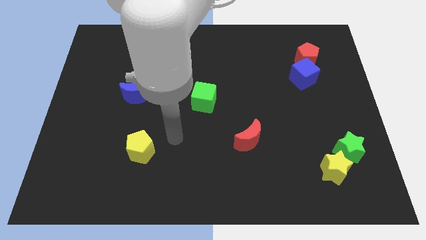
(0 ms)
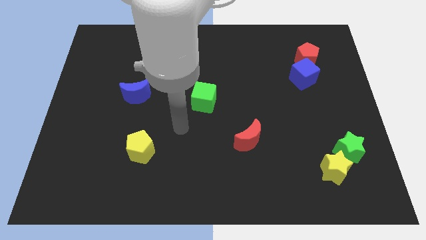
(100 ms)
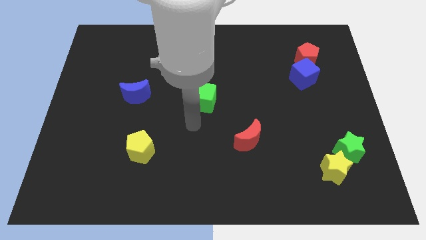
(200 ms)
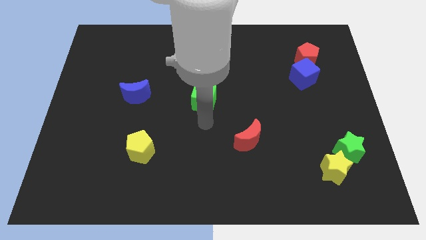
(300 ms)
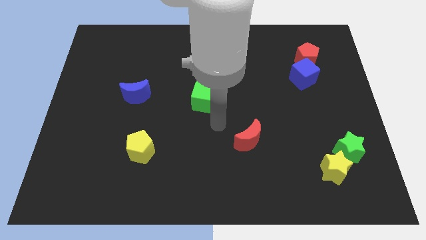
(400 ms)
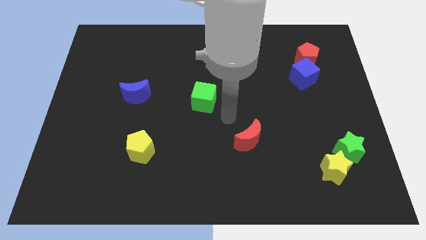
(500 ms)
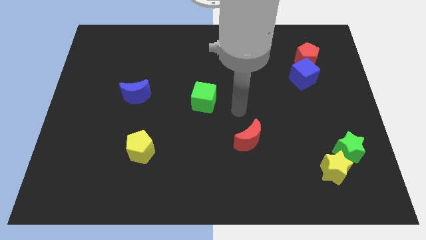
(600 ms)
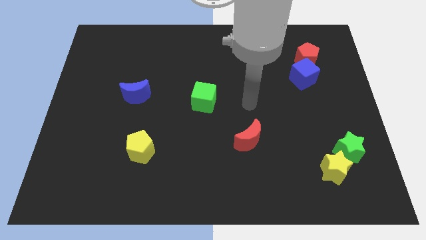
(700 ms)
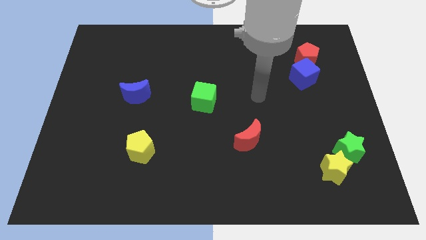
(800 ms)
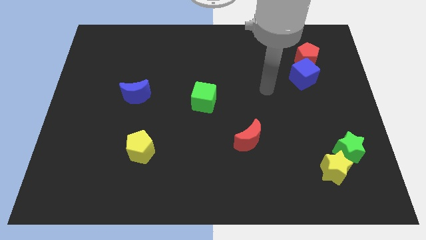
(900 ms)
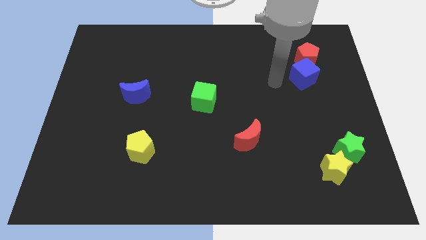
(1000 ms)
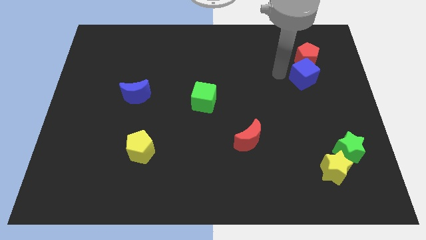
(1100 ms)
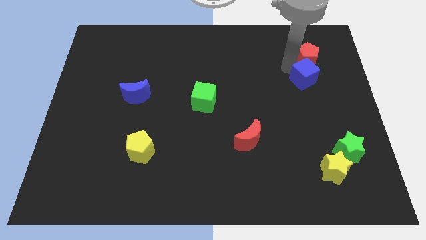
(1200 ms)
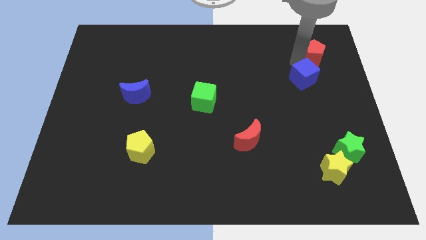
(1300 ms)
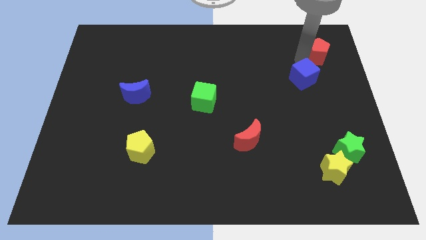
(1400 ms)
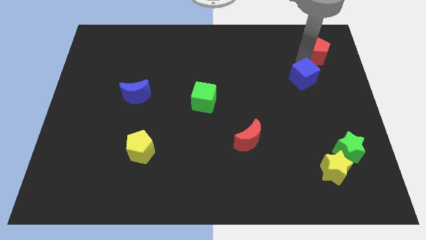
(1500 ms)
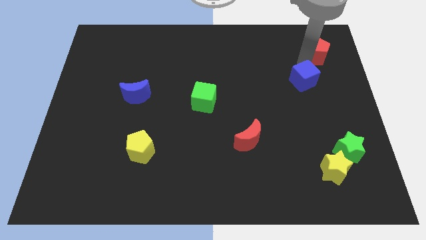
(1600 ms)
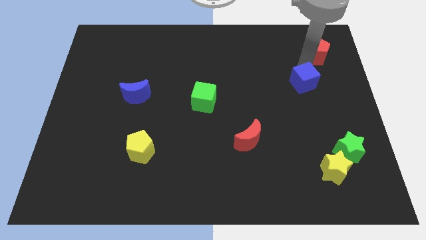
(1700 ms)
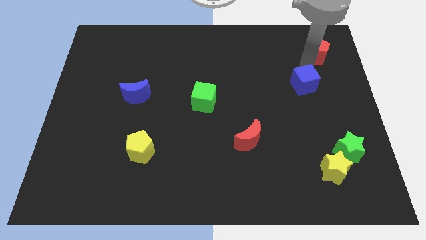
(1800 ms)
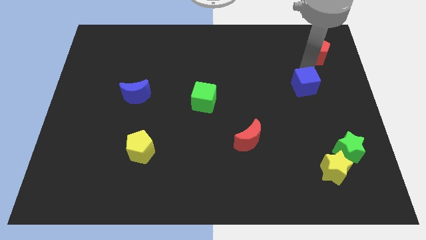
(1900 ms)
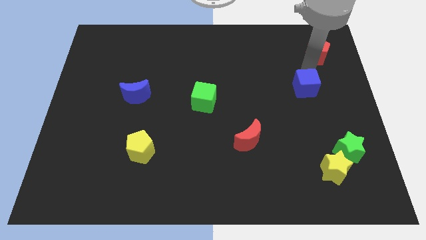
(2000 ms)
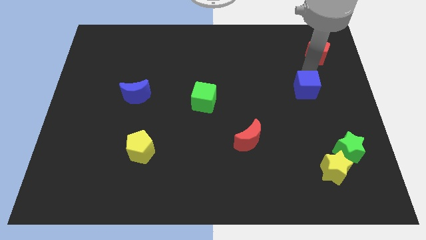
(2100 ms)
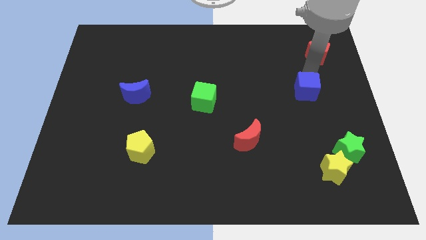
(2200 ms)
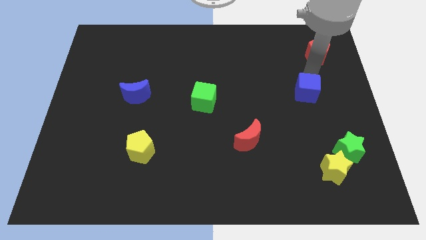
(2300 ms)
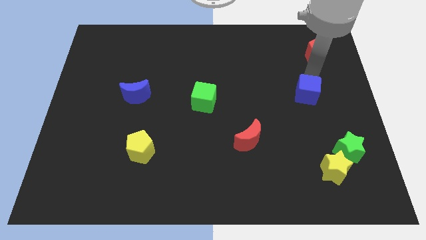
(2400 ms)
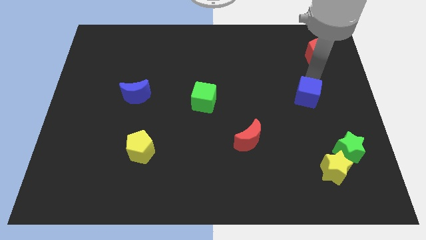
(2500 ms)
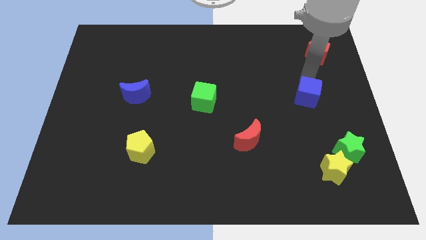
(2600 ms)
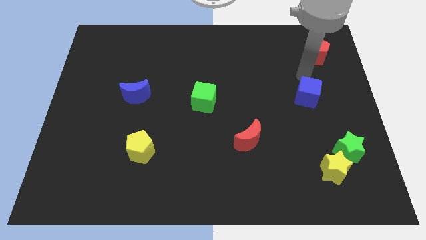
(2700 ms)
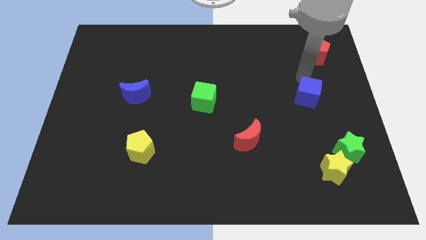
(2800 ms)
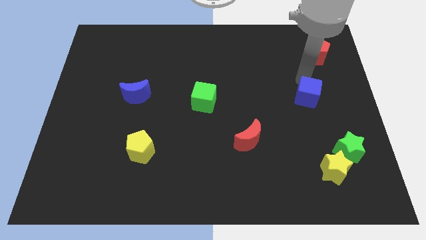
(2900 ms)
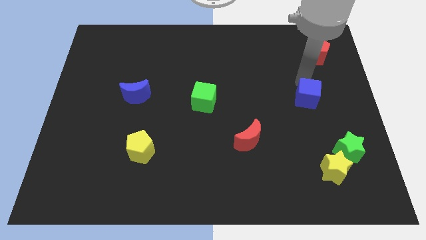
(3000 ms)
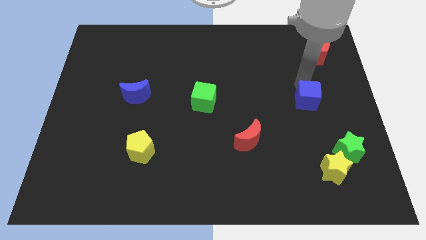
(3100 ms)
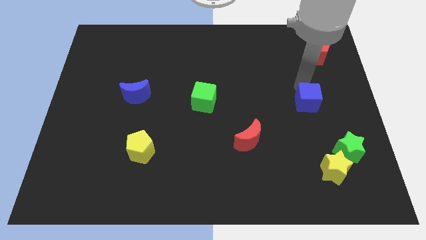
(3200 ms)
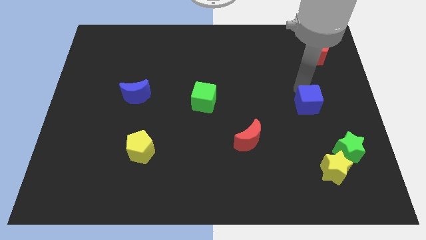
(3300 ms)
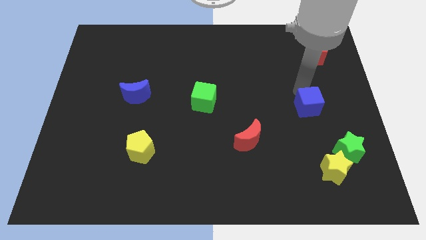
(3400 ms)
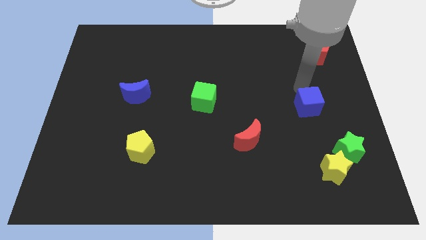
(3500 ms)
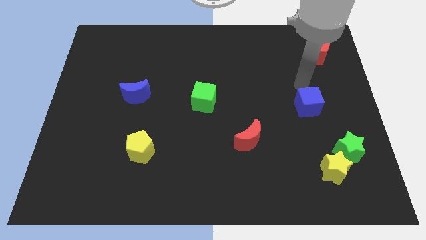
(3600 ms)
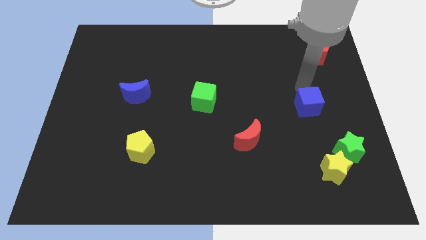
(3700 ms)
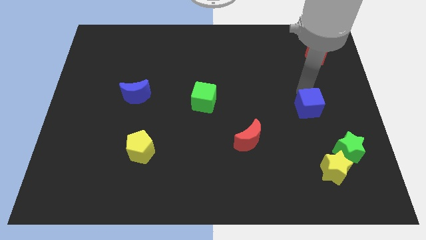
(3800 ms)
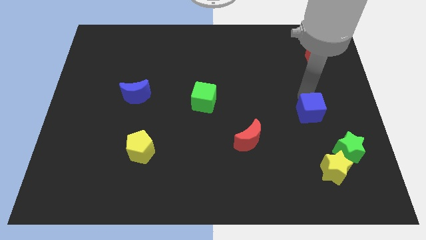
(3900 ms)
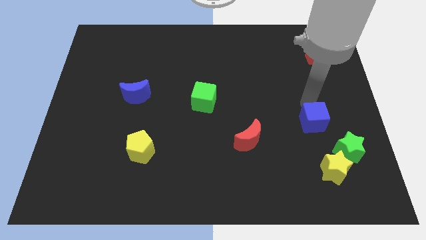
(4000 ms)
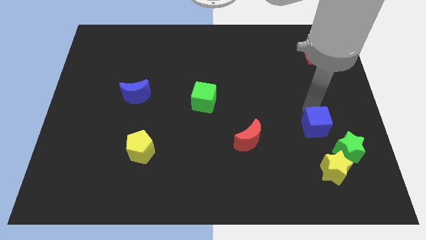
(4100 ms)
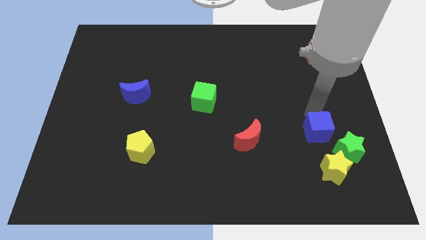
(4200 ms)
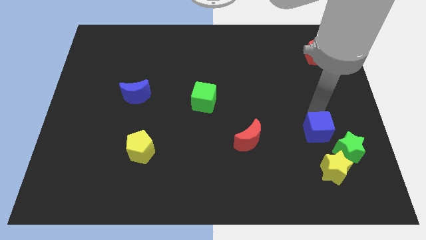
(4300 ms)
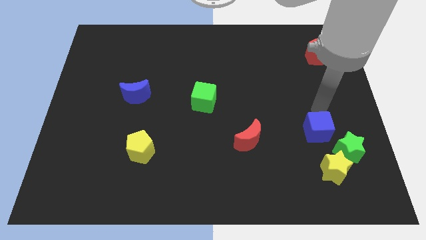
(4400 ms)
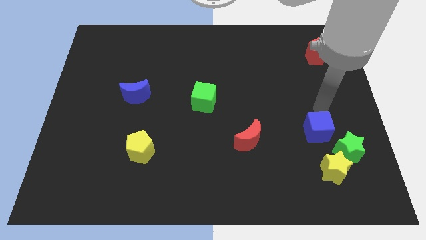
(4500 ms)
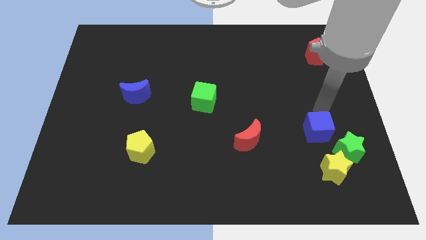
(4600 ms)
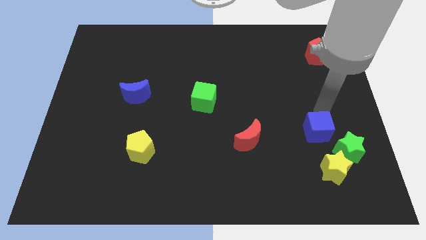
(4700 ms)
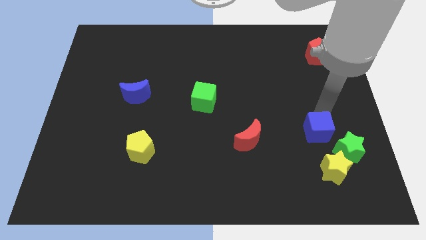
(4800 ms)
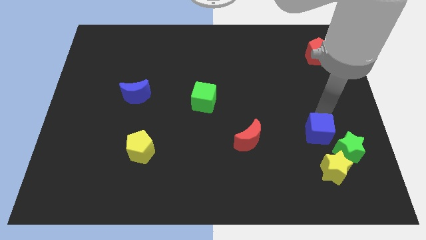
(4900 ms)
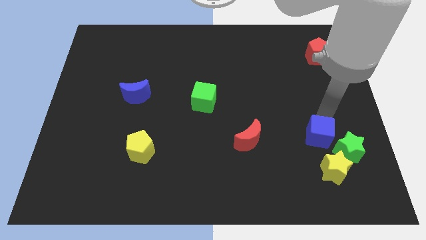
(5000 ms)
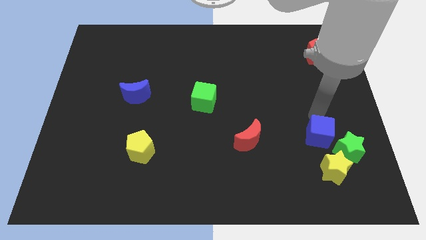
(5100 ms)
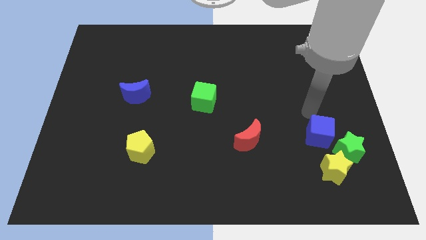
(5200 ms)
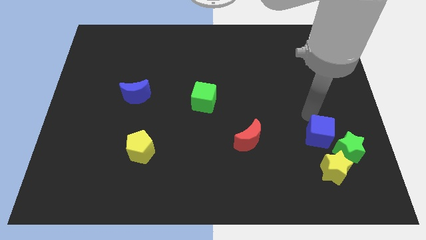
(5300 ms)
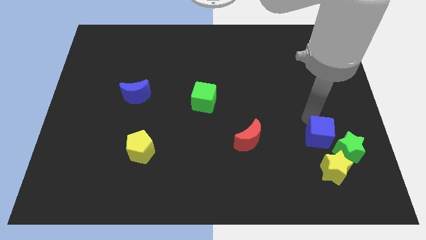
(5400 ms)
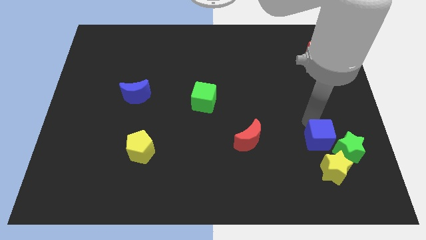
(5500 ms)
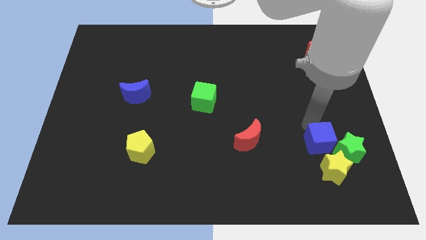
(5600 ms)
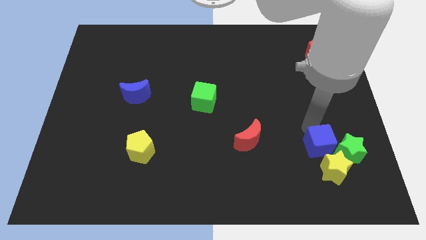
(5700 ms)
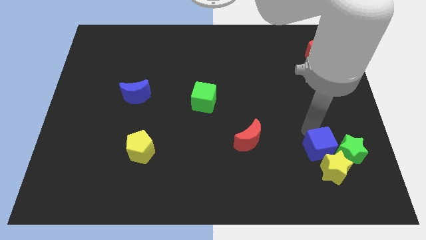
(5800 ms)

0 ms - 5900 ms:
push the blue cube close to the yellow star

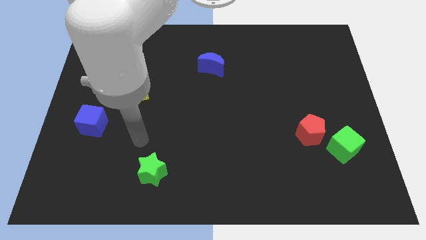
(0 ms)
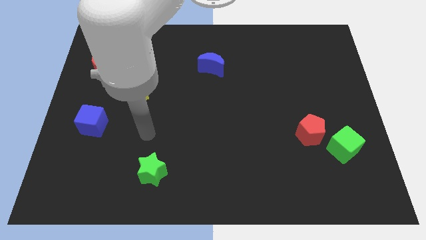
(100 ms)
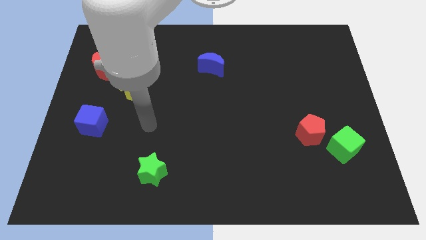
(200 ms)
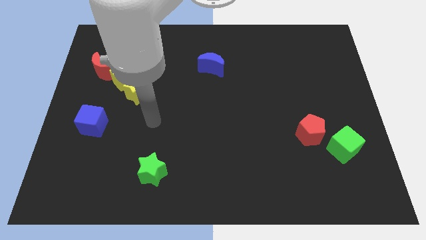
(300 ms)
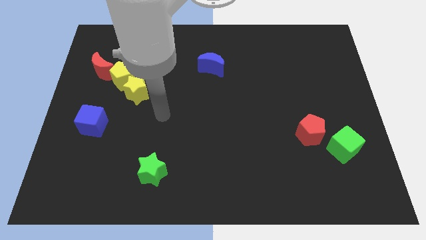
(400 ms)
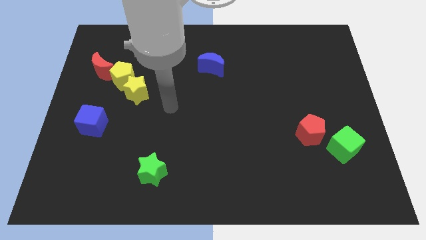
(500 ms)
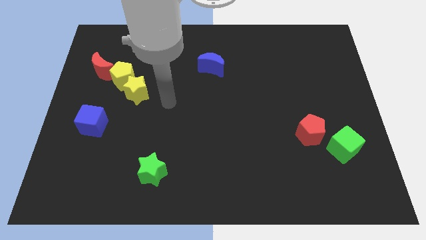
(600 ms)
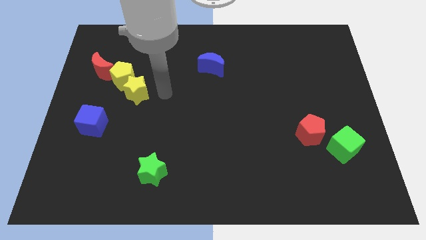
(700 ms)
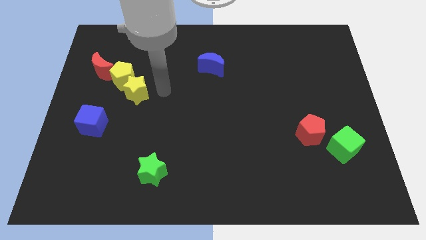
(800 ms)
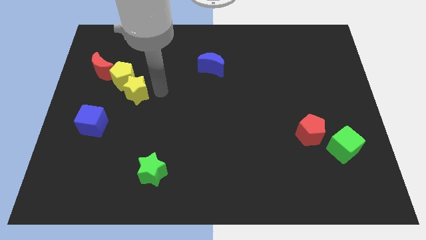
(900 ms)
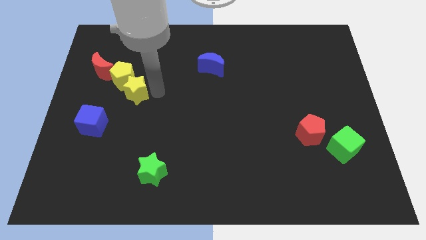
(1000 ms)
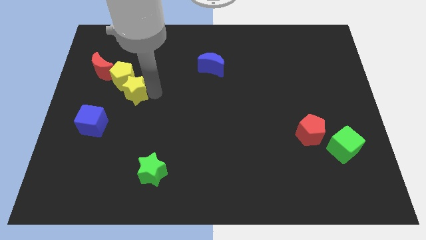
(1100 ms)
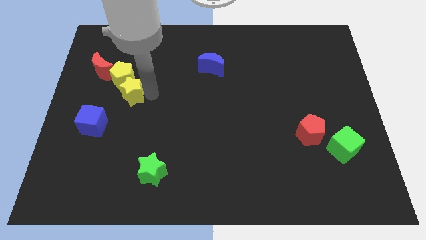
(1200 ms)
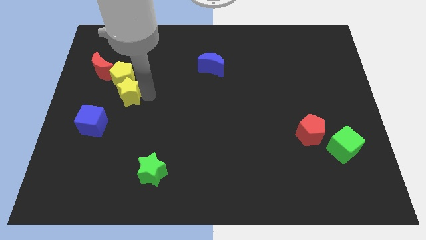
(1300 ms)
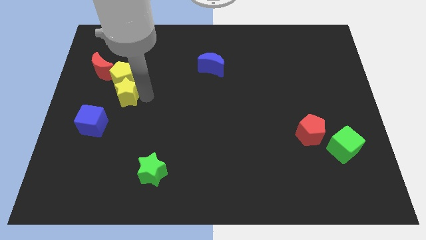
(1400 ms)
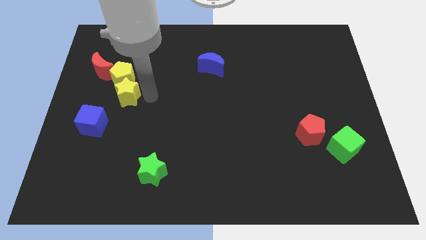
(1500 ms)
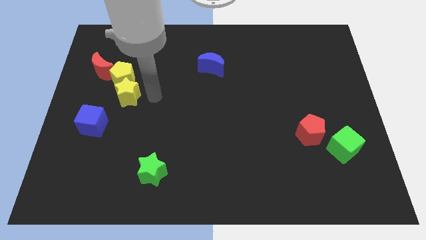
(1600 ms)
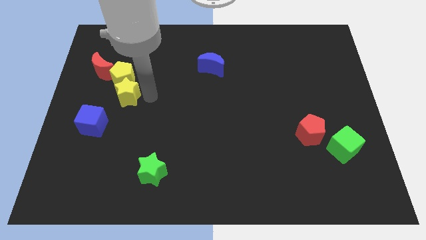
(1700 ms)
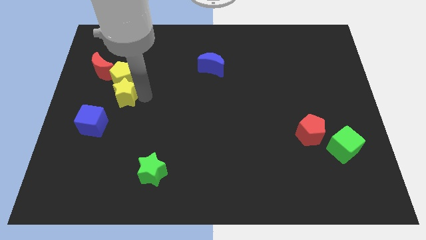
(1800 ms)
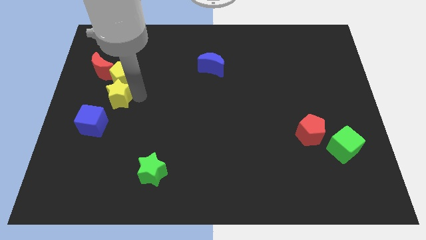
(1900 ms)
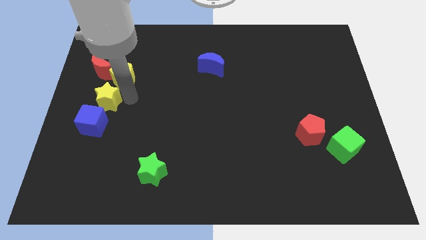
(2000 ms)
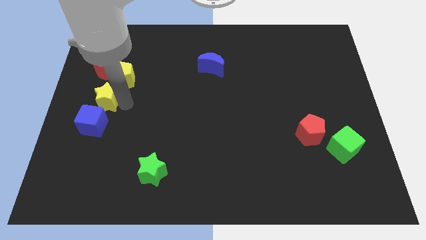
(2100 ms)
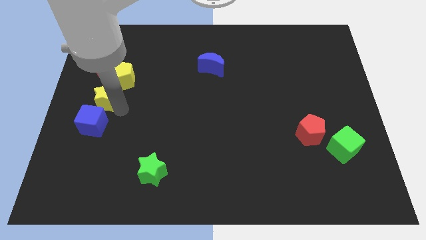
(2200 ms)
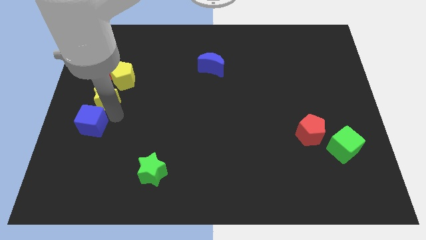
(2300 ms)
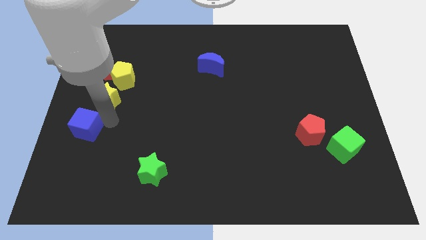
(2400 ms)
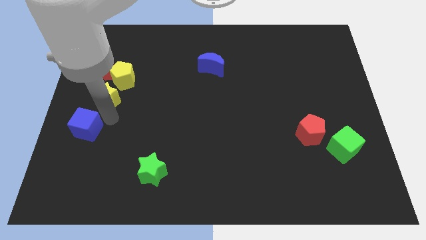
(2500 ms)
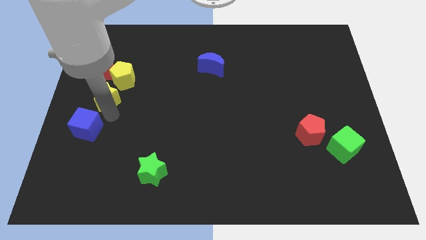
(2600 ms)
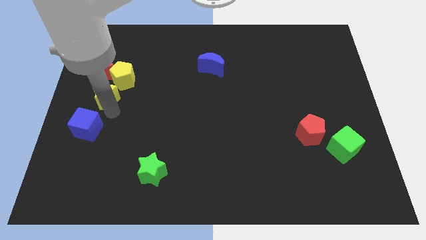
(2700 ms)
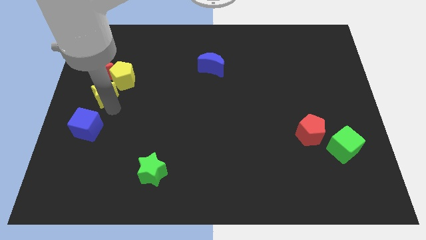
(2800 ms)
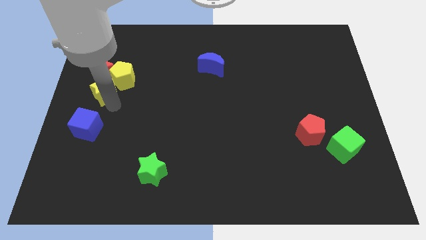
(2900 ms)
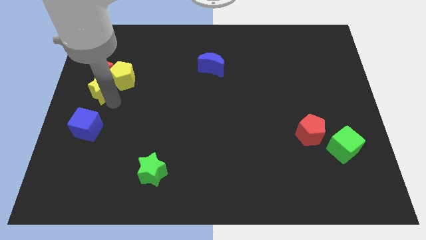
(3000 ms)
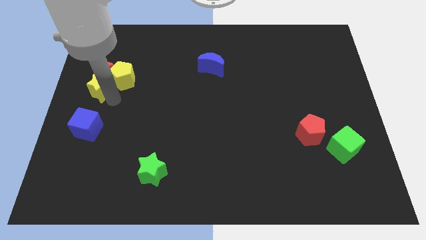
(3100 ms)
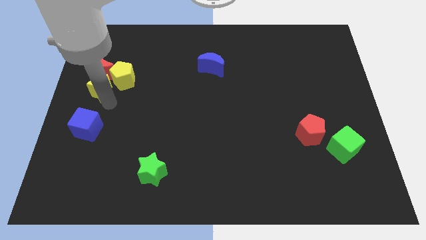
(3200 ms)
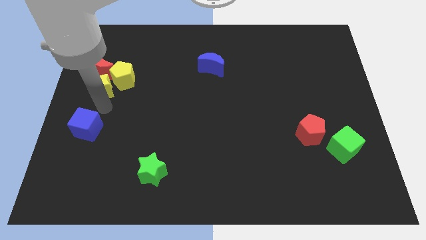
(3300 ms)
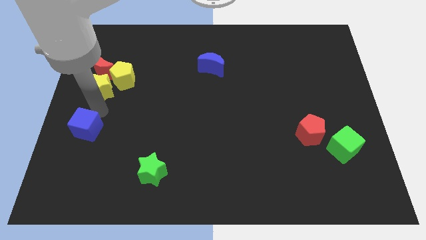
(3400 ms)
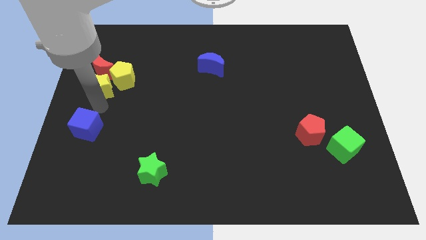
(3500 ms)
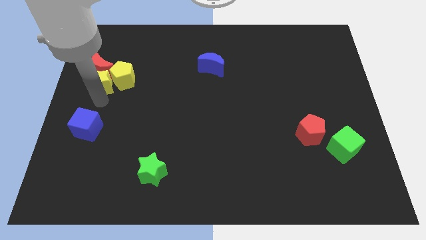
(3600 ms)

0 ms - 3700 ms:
put the yellow star to the red moon
